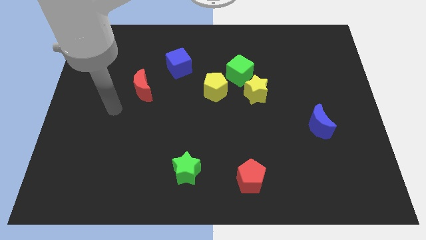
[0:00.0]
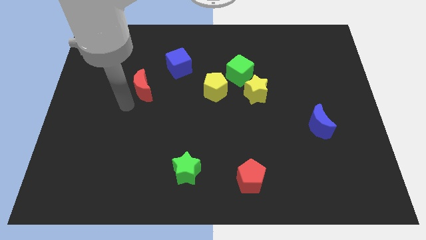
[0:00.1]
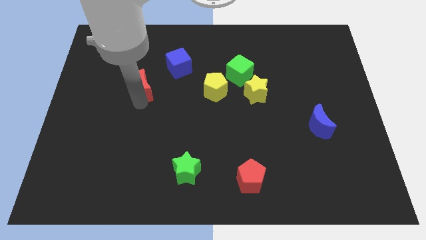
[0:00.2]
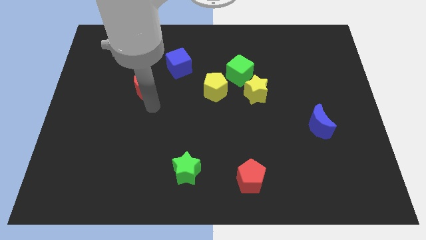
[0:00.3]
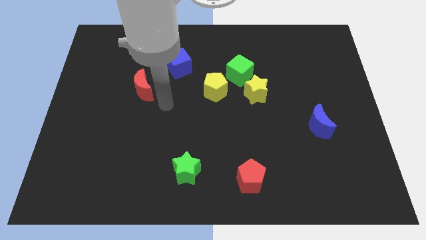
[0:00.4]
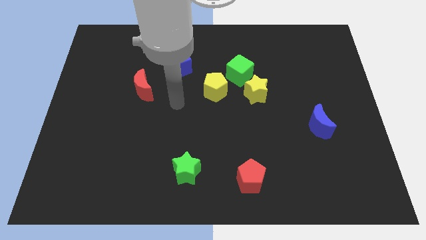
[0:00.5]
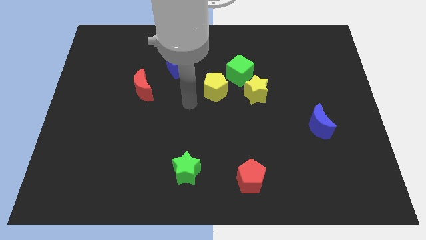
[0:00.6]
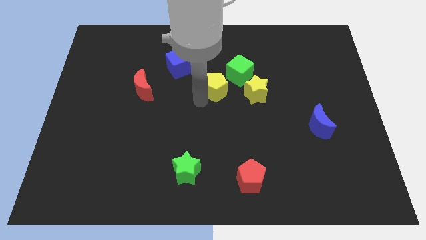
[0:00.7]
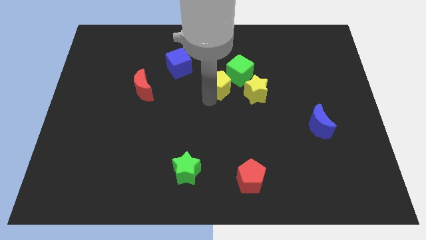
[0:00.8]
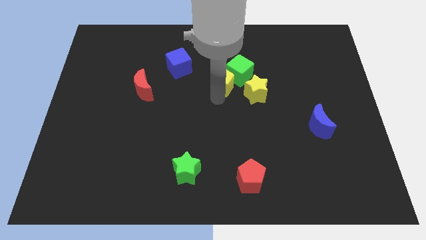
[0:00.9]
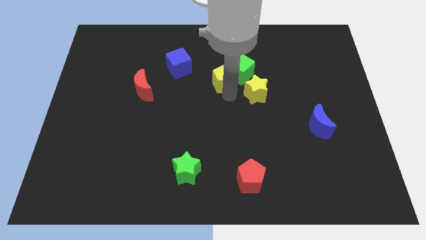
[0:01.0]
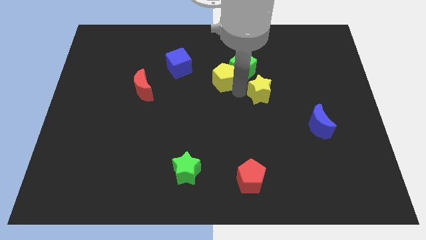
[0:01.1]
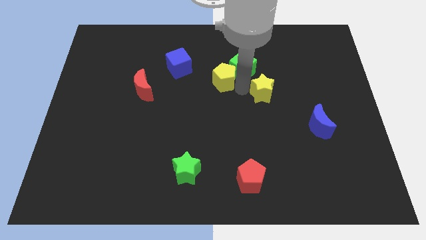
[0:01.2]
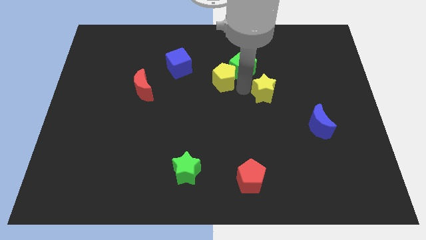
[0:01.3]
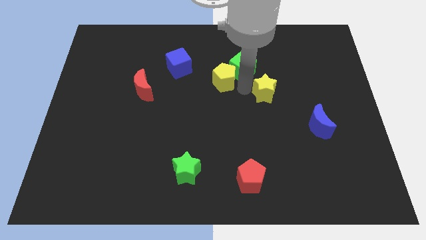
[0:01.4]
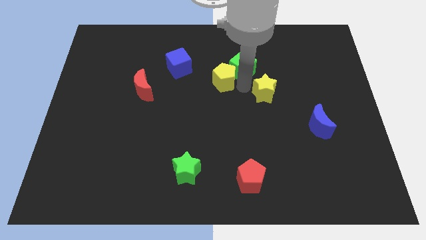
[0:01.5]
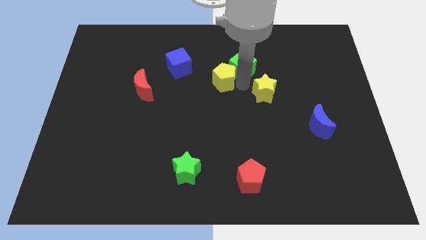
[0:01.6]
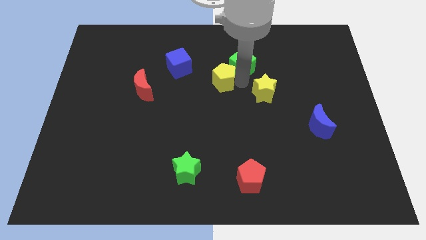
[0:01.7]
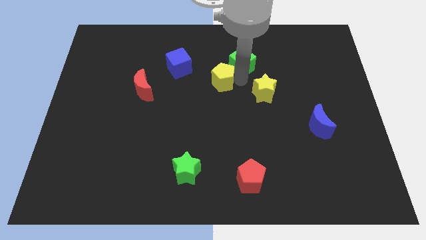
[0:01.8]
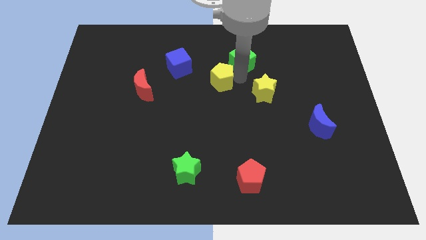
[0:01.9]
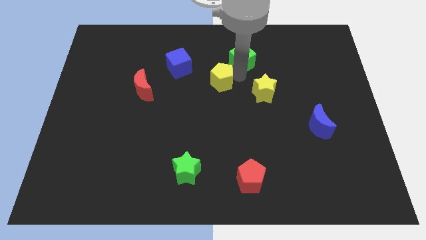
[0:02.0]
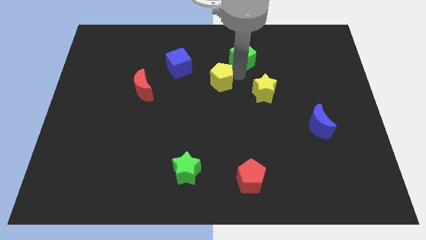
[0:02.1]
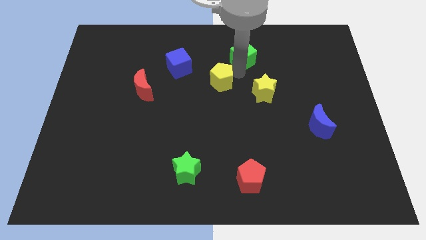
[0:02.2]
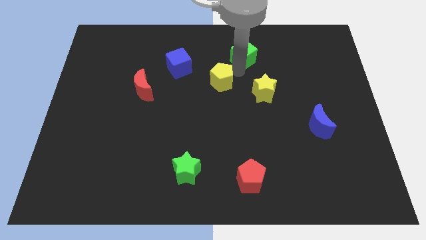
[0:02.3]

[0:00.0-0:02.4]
move the green cube away from the yellow star and yellow pentagon

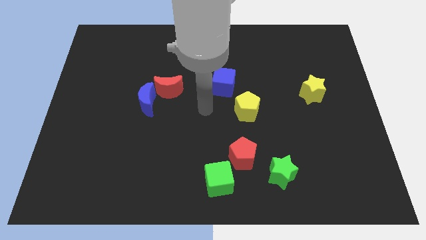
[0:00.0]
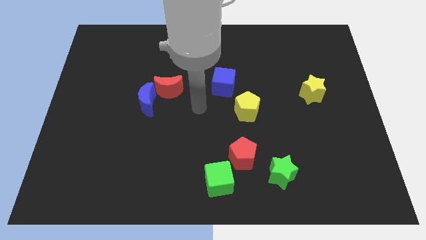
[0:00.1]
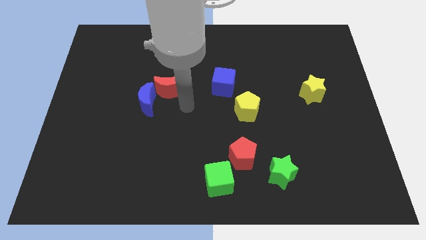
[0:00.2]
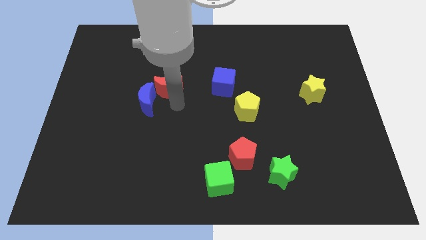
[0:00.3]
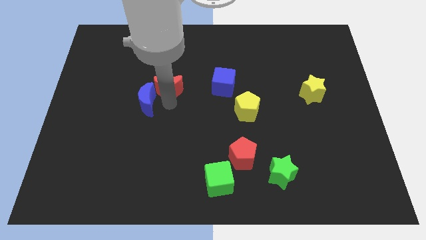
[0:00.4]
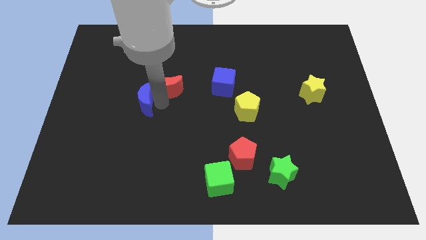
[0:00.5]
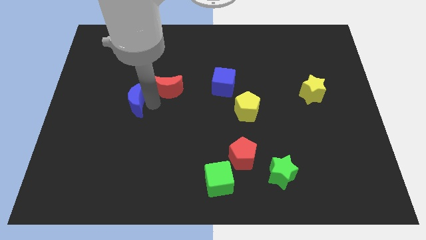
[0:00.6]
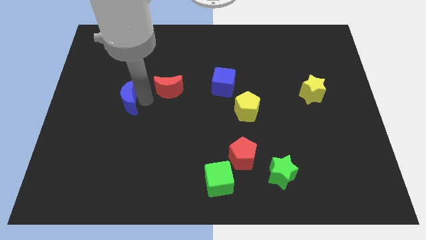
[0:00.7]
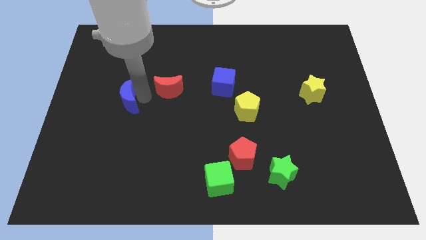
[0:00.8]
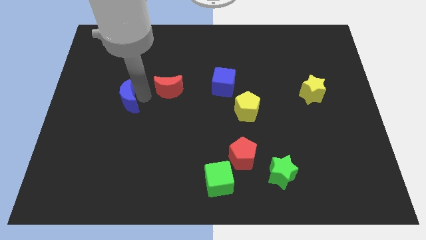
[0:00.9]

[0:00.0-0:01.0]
move the red moon away from the blue moon

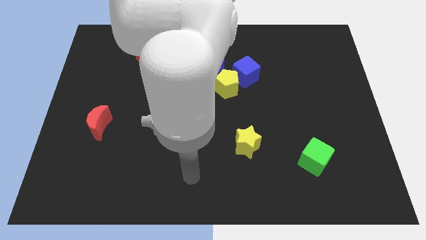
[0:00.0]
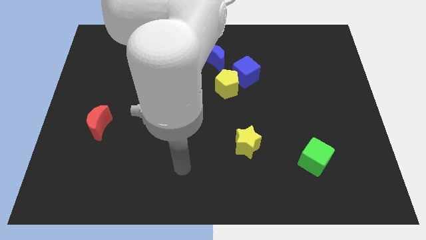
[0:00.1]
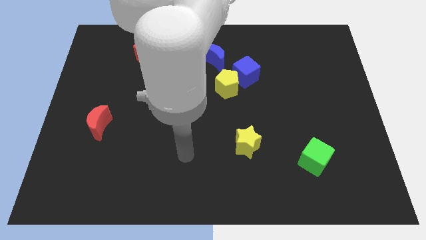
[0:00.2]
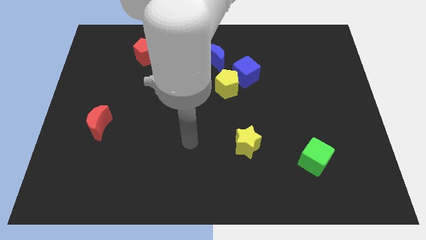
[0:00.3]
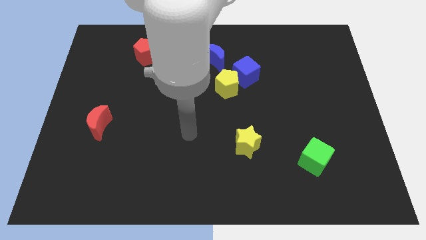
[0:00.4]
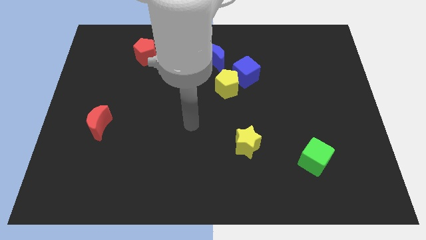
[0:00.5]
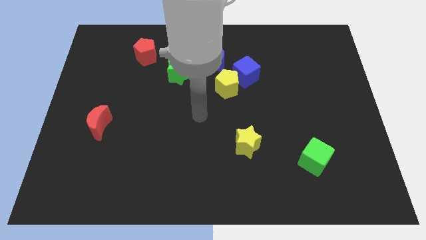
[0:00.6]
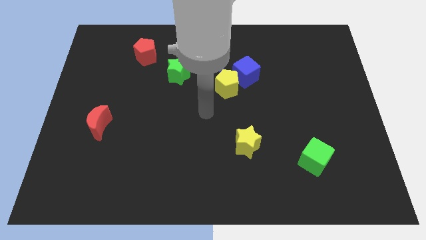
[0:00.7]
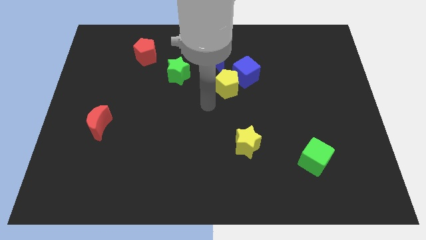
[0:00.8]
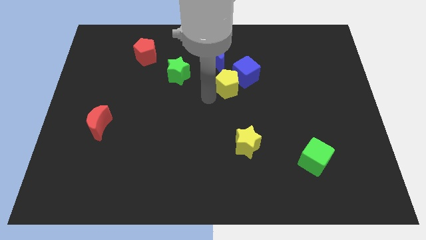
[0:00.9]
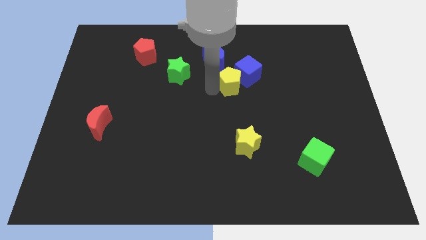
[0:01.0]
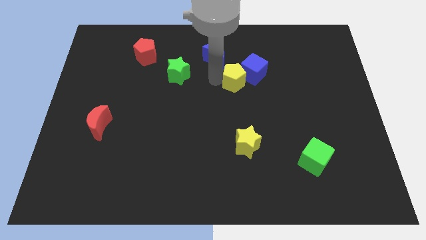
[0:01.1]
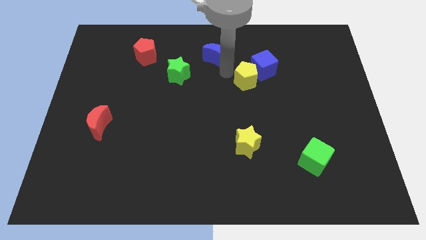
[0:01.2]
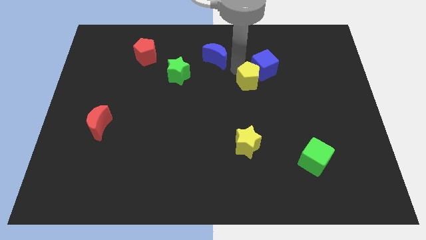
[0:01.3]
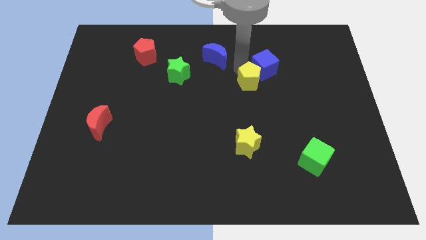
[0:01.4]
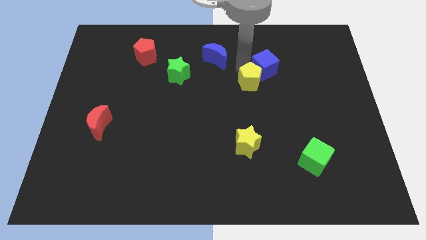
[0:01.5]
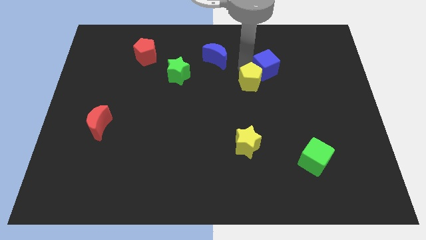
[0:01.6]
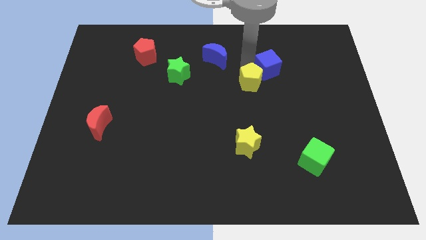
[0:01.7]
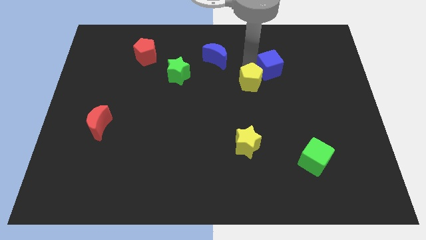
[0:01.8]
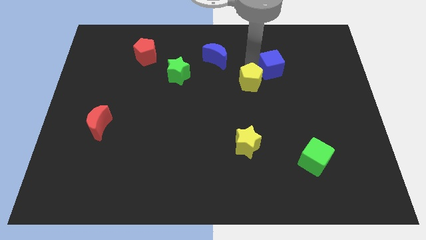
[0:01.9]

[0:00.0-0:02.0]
pull the blue cube apart from the yellow pentagon and blue moon

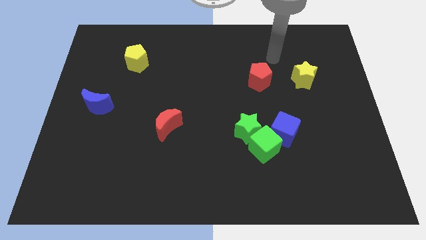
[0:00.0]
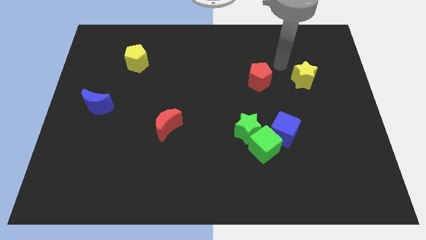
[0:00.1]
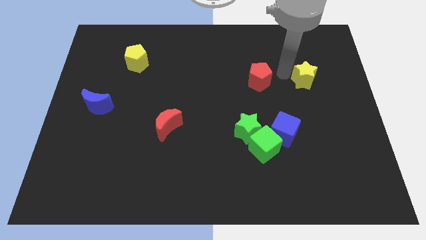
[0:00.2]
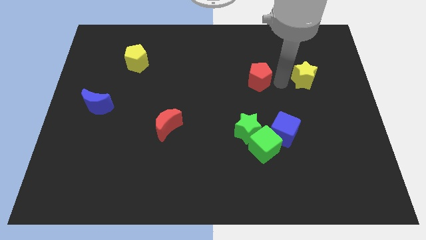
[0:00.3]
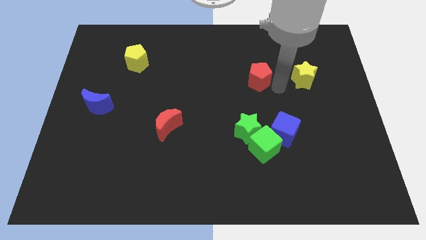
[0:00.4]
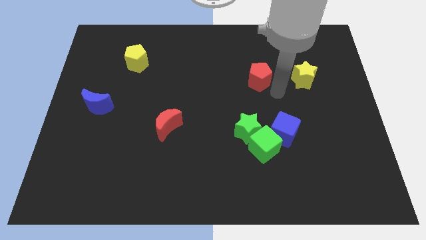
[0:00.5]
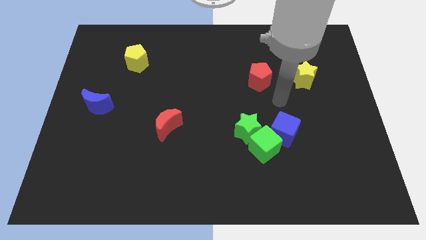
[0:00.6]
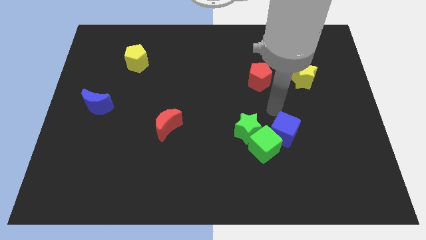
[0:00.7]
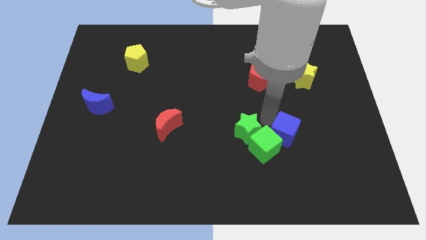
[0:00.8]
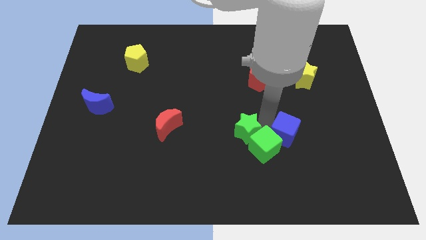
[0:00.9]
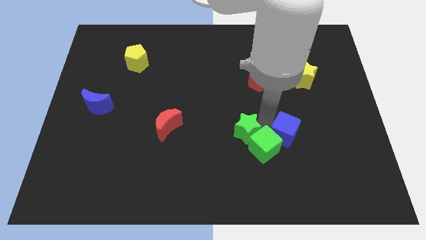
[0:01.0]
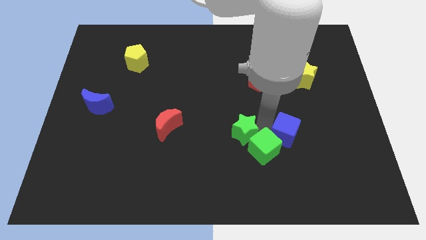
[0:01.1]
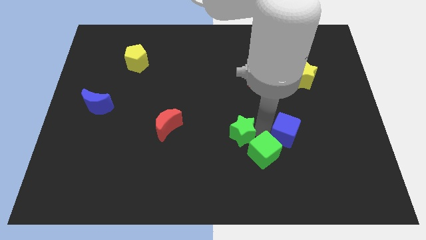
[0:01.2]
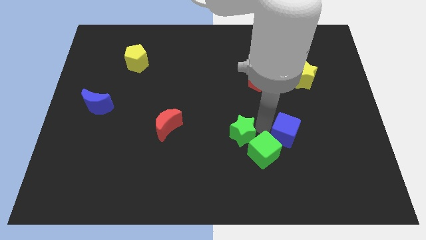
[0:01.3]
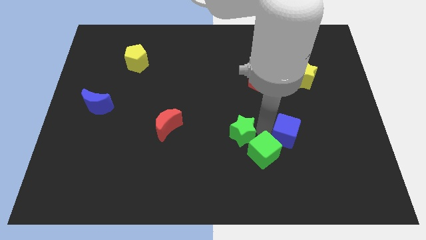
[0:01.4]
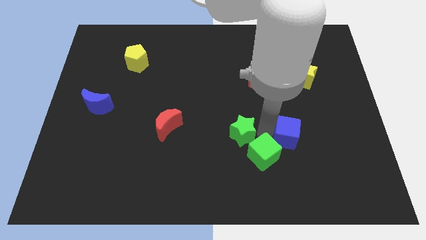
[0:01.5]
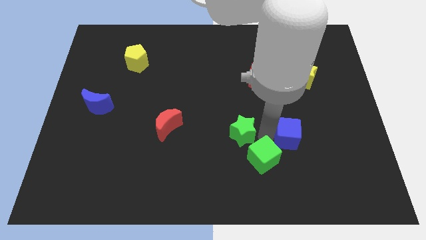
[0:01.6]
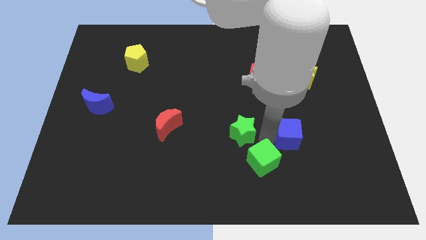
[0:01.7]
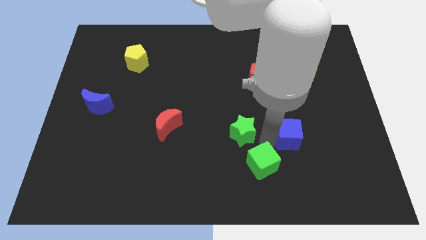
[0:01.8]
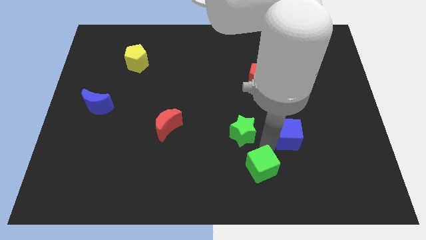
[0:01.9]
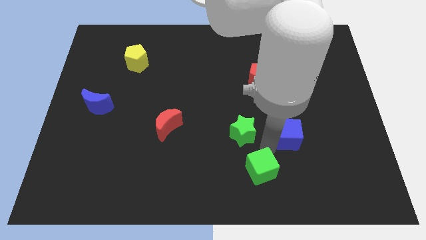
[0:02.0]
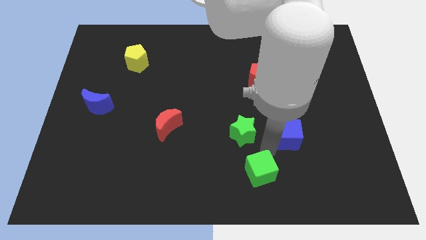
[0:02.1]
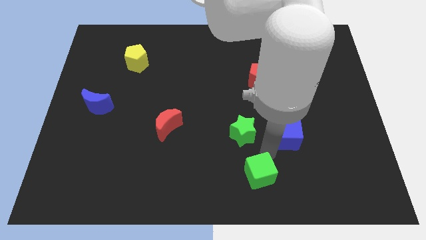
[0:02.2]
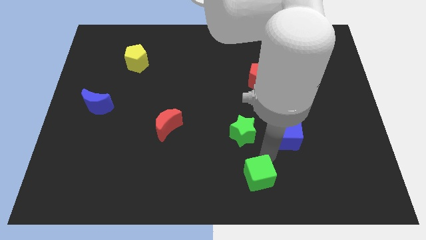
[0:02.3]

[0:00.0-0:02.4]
pull the green cube apart from the green star and blue cube

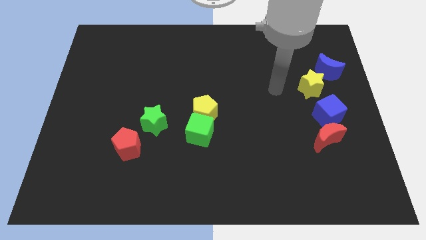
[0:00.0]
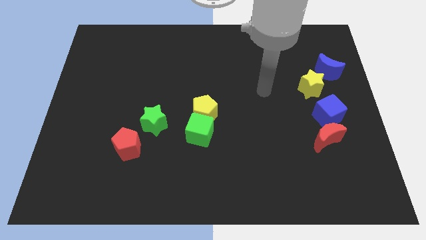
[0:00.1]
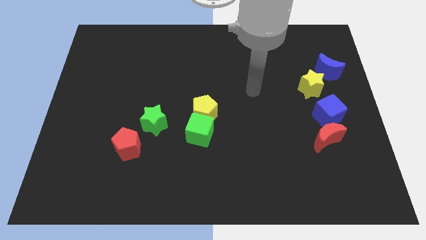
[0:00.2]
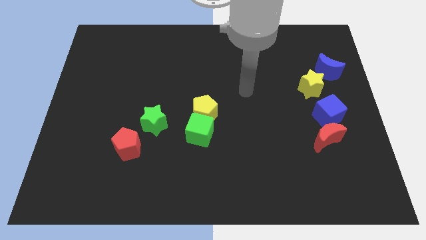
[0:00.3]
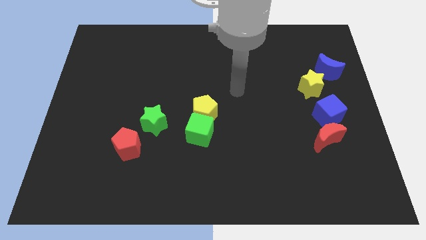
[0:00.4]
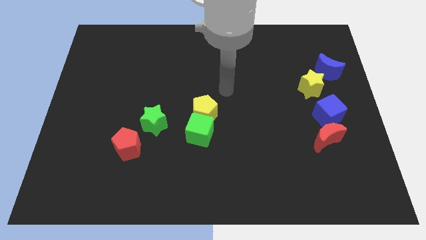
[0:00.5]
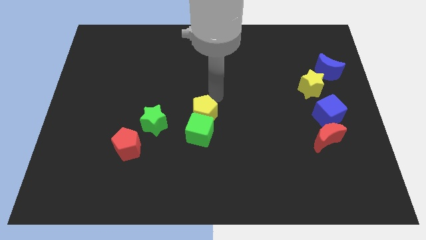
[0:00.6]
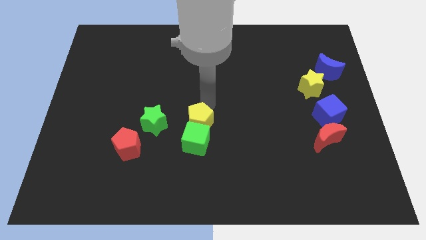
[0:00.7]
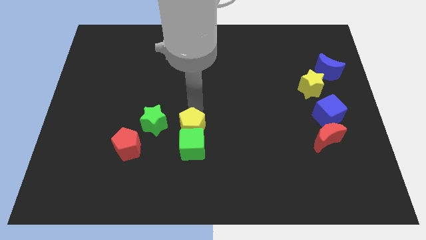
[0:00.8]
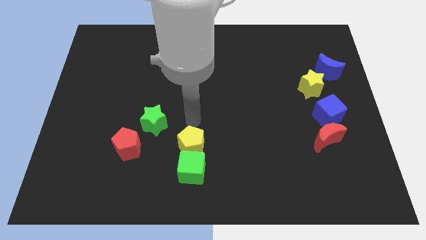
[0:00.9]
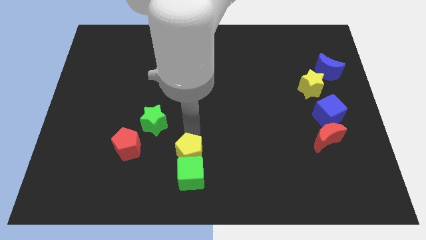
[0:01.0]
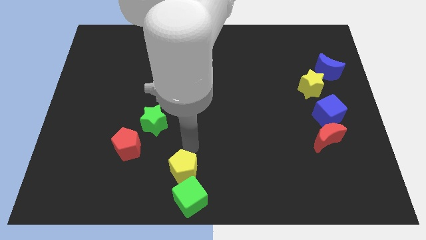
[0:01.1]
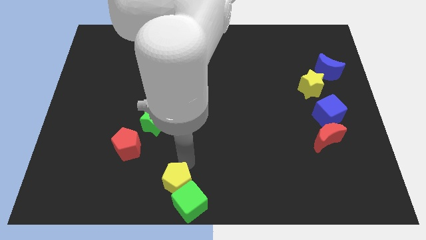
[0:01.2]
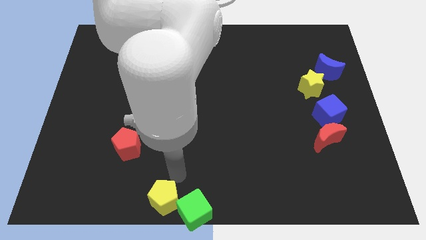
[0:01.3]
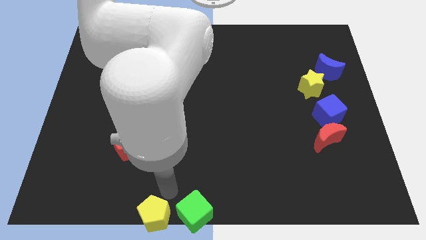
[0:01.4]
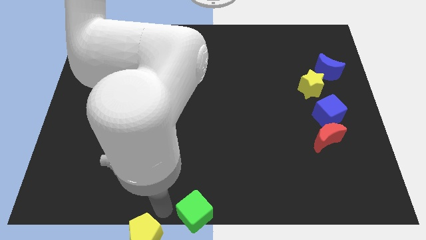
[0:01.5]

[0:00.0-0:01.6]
move the green cube away from the yellow pentagon
